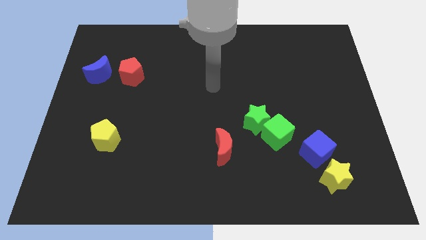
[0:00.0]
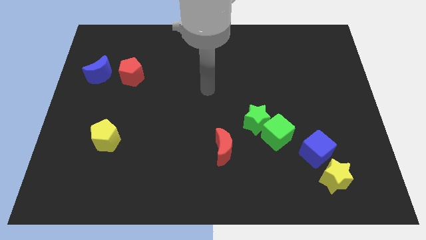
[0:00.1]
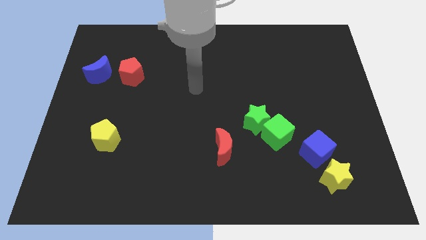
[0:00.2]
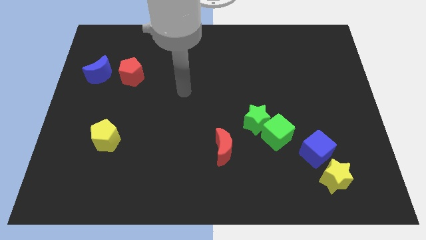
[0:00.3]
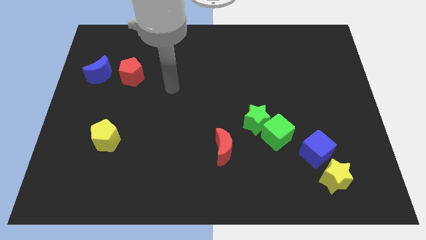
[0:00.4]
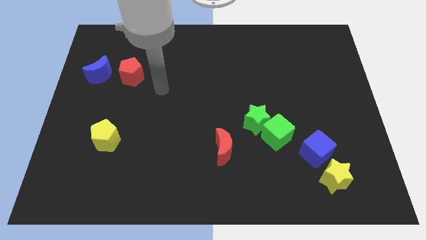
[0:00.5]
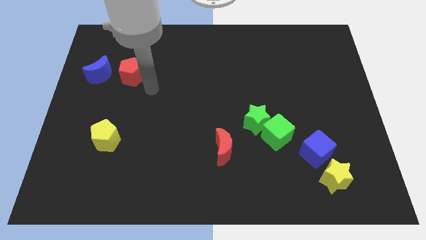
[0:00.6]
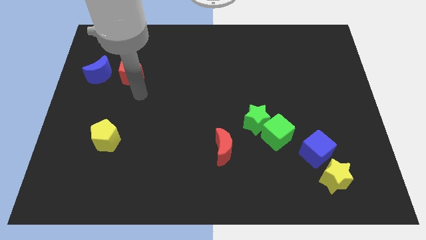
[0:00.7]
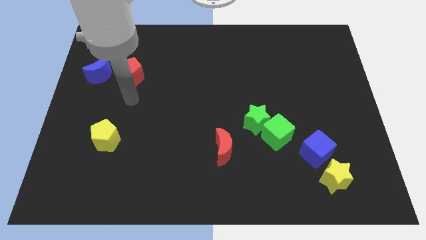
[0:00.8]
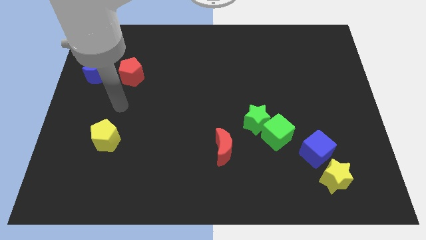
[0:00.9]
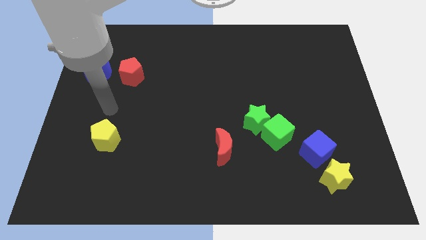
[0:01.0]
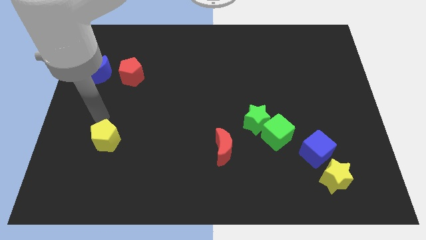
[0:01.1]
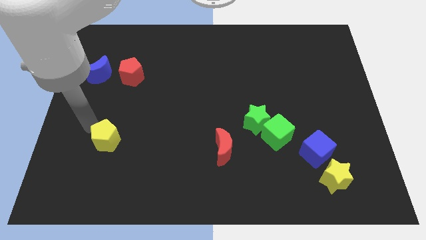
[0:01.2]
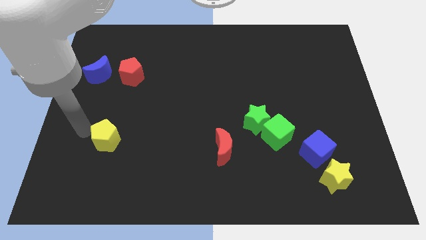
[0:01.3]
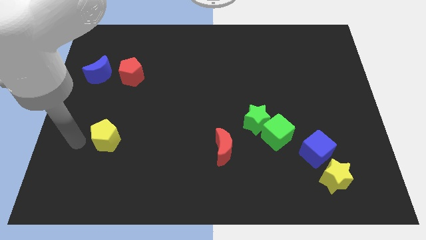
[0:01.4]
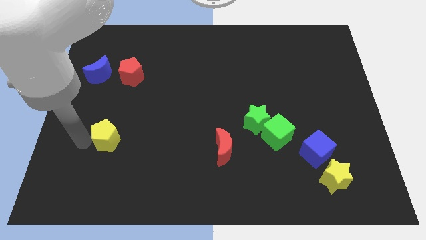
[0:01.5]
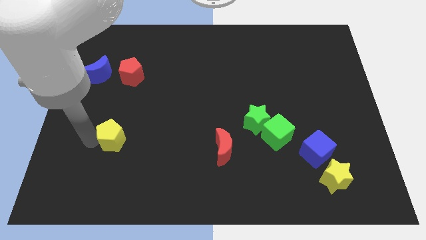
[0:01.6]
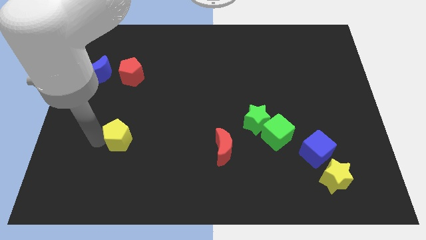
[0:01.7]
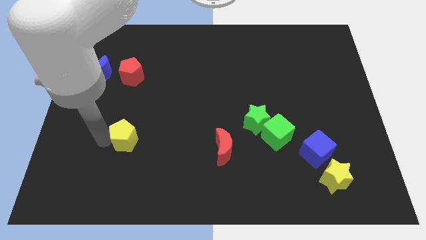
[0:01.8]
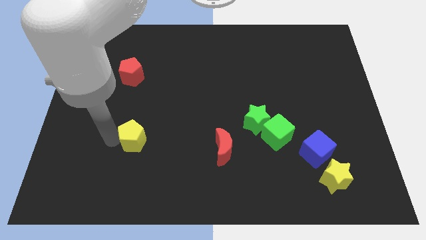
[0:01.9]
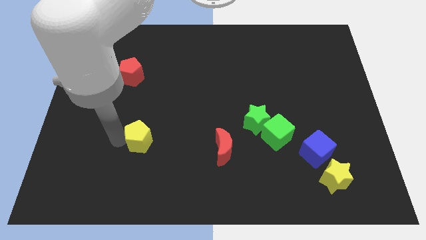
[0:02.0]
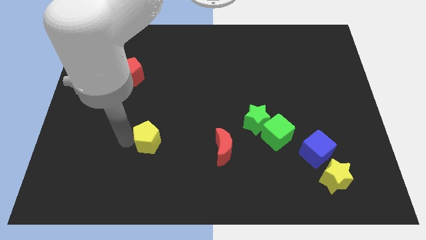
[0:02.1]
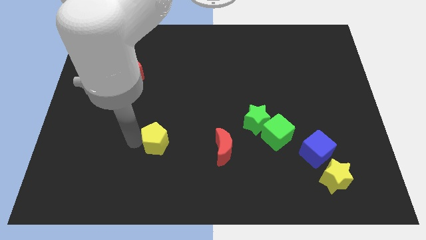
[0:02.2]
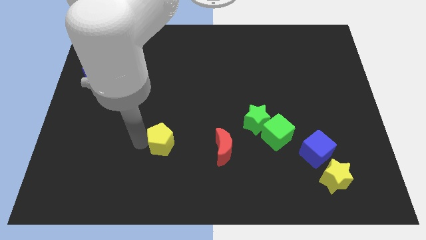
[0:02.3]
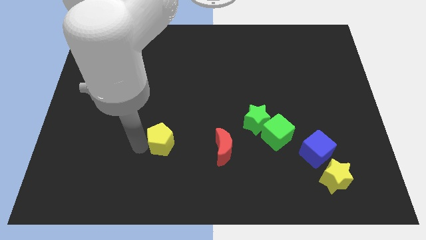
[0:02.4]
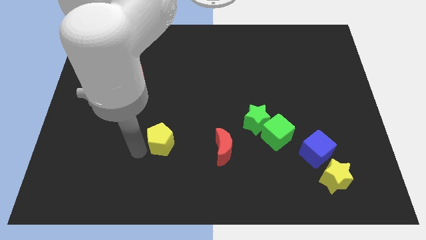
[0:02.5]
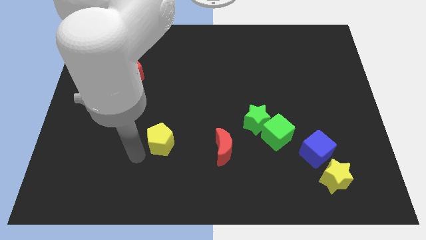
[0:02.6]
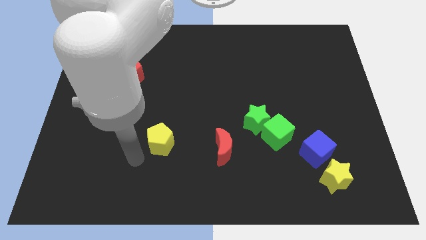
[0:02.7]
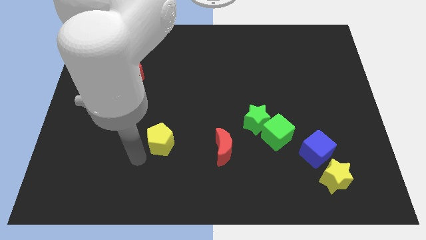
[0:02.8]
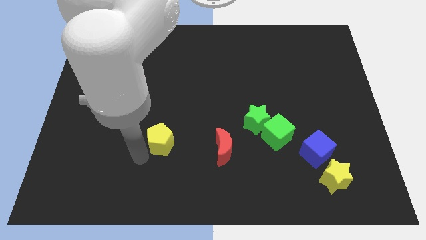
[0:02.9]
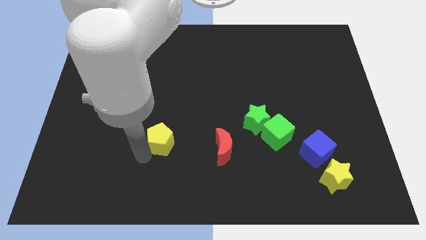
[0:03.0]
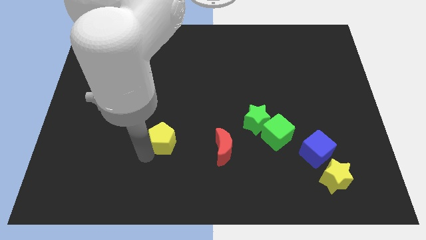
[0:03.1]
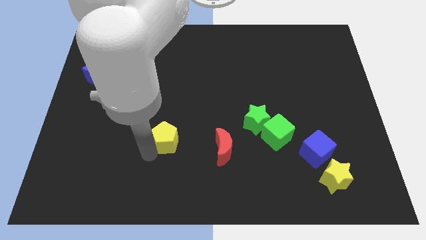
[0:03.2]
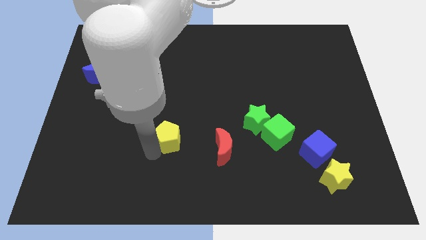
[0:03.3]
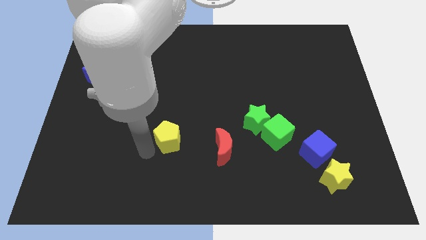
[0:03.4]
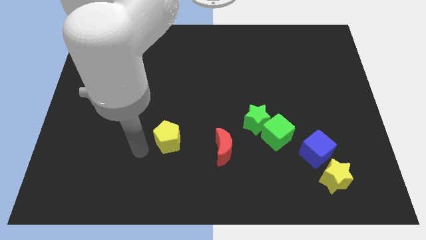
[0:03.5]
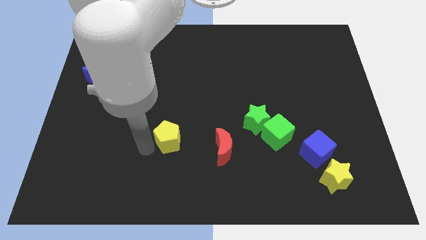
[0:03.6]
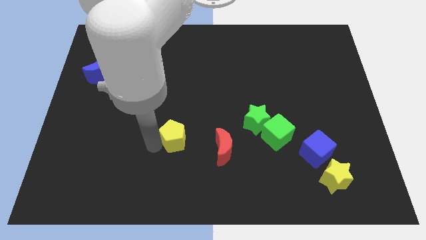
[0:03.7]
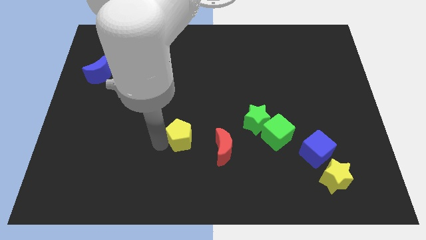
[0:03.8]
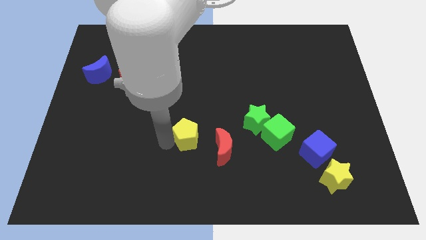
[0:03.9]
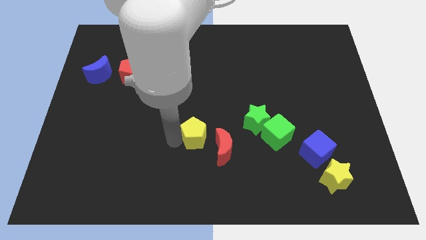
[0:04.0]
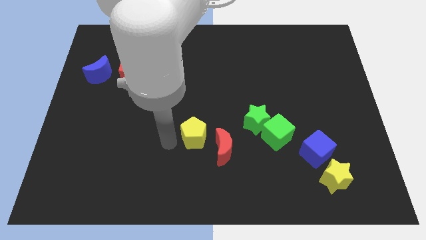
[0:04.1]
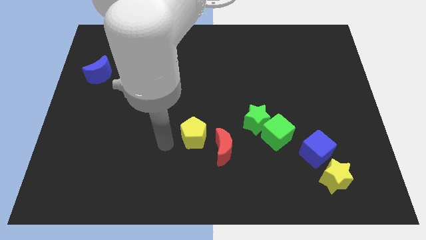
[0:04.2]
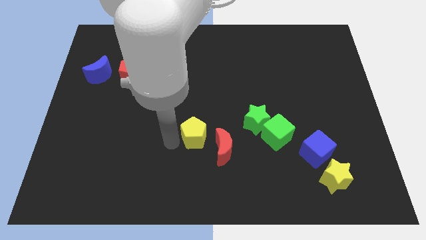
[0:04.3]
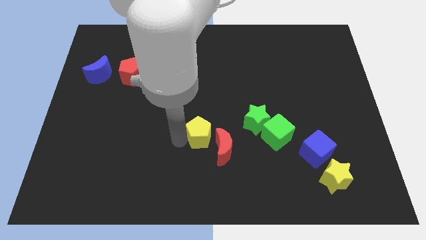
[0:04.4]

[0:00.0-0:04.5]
slide the yellow pentagon to the right

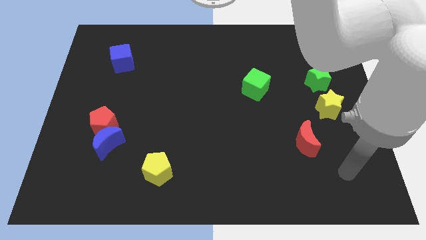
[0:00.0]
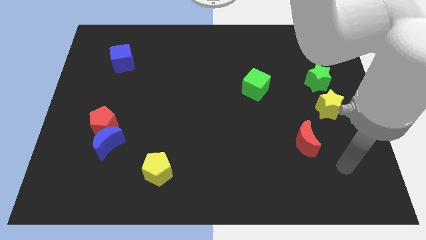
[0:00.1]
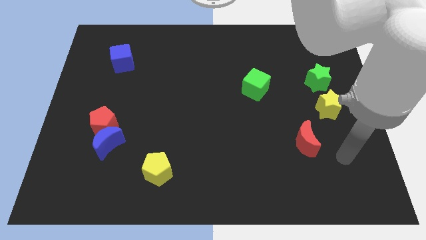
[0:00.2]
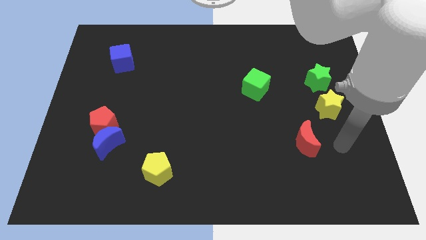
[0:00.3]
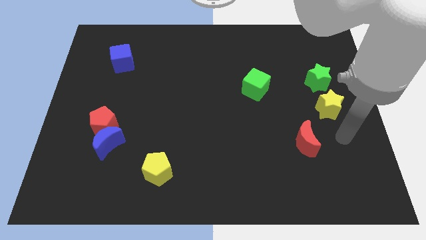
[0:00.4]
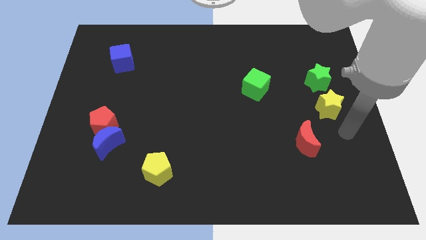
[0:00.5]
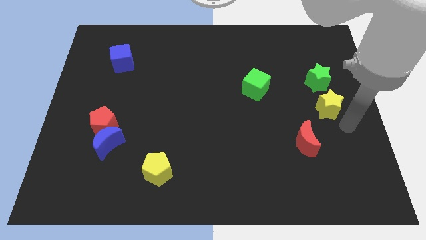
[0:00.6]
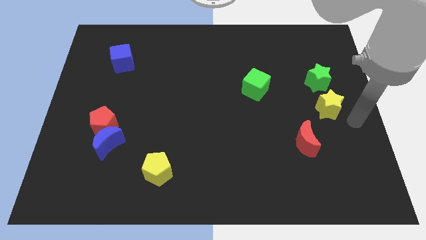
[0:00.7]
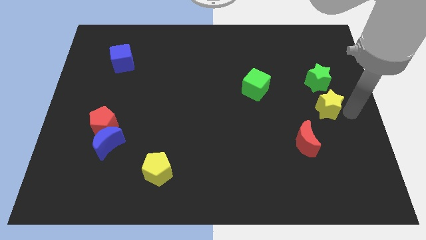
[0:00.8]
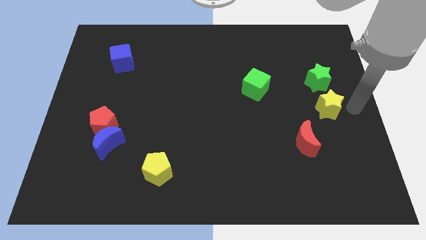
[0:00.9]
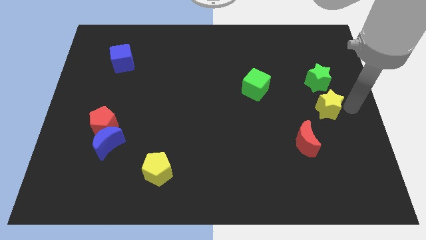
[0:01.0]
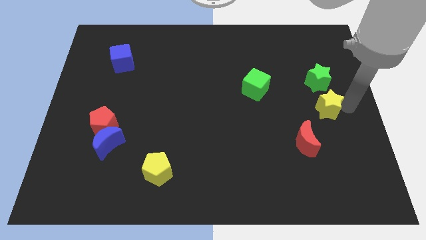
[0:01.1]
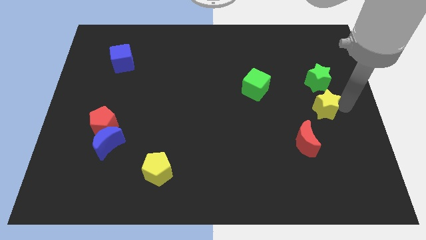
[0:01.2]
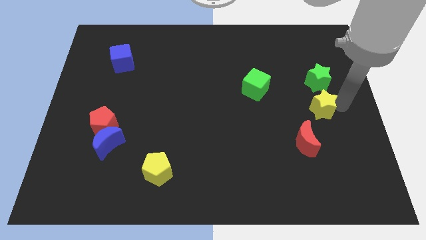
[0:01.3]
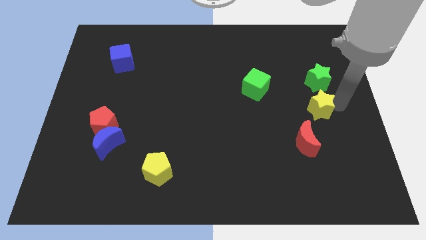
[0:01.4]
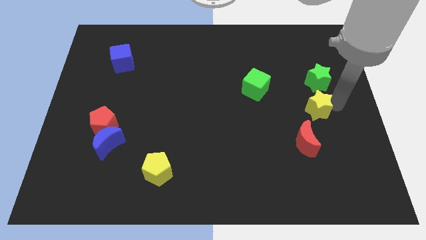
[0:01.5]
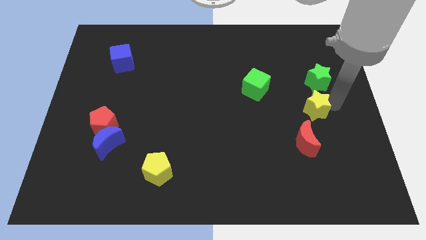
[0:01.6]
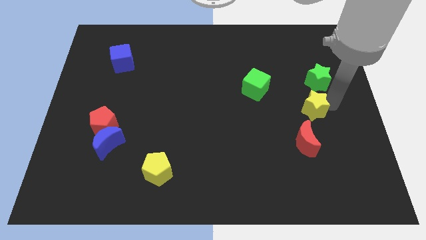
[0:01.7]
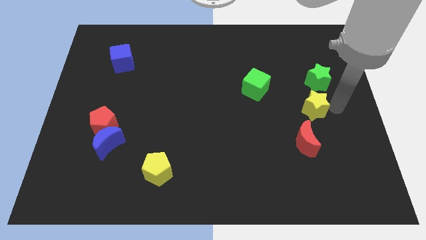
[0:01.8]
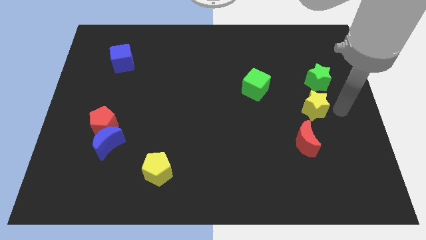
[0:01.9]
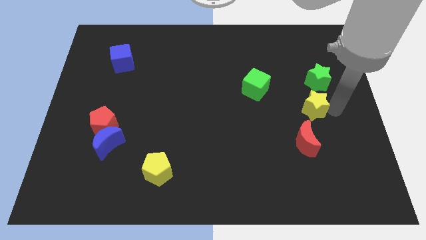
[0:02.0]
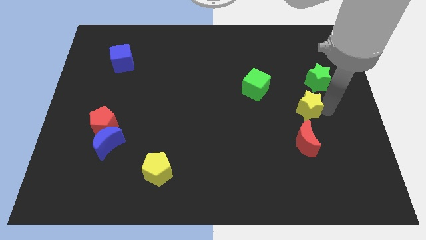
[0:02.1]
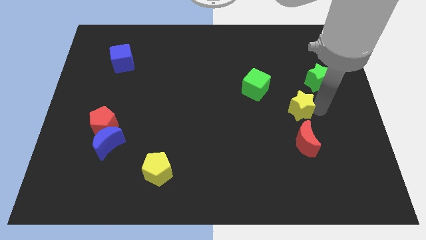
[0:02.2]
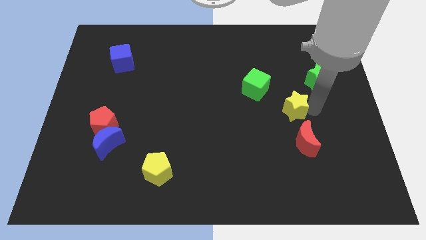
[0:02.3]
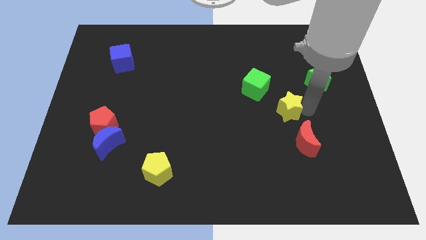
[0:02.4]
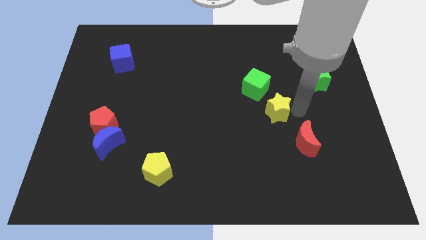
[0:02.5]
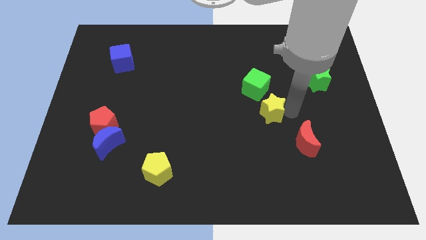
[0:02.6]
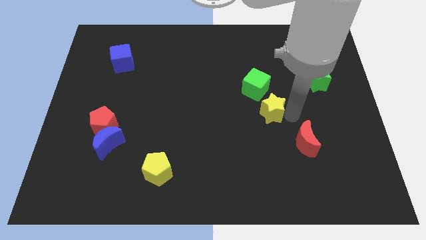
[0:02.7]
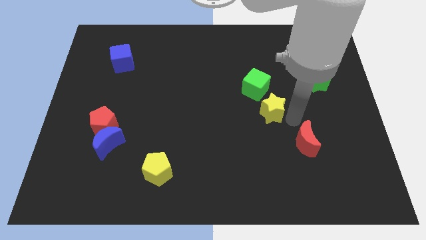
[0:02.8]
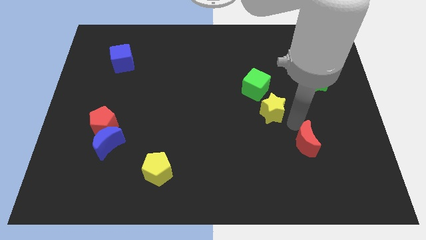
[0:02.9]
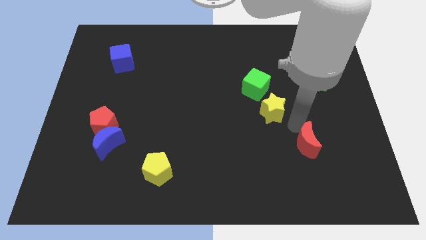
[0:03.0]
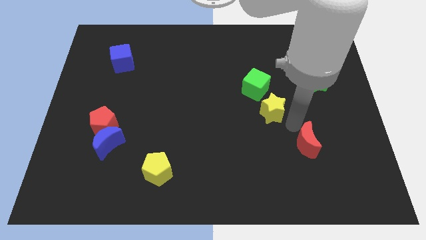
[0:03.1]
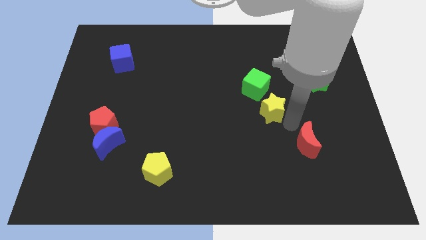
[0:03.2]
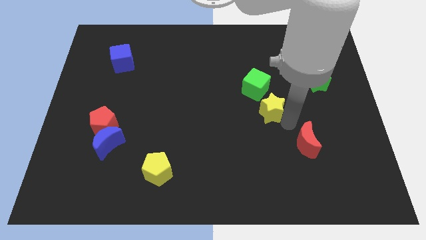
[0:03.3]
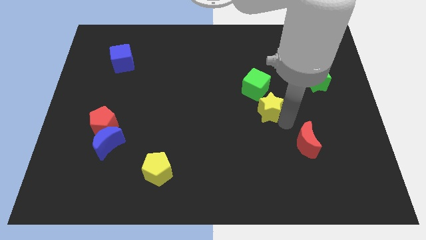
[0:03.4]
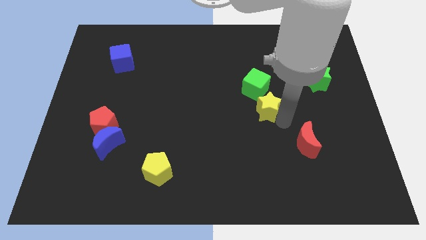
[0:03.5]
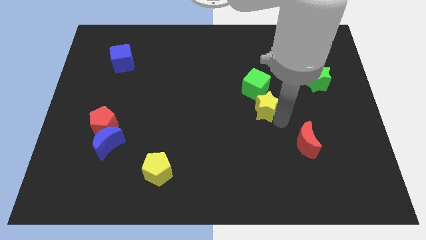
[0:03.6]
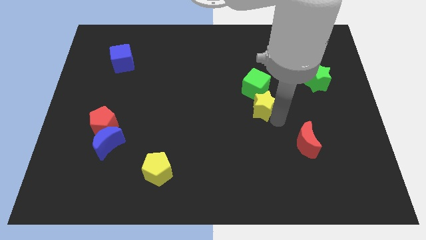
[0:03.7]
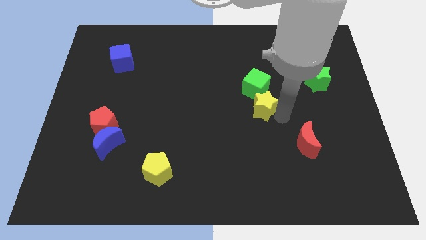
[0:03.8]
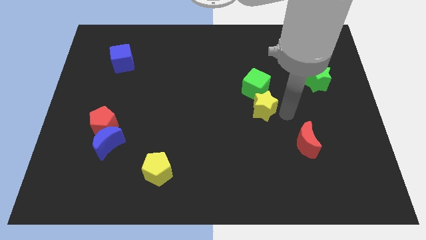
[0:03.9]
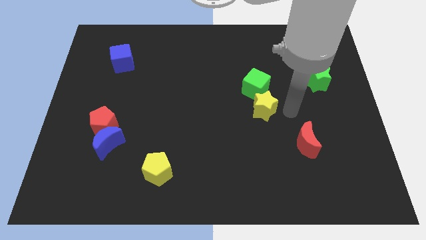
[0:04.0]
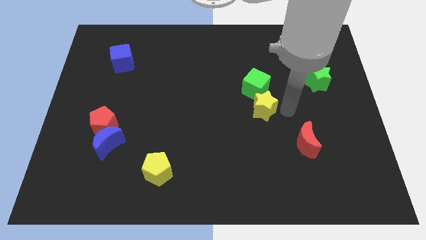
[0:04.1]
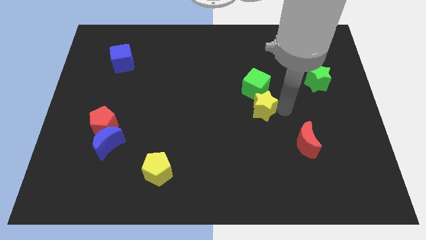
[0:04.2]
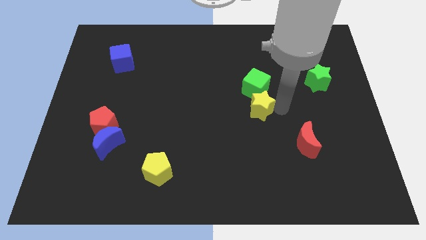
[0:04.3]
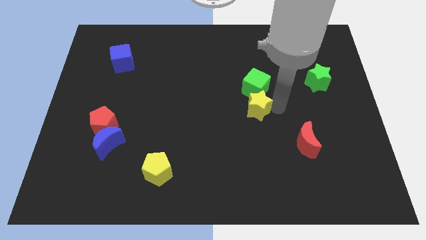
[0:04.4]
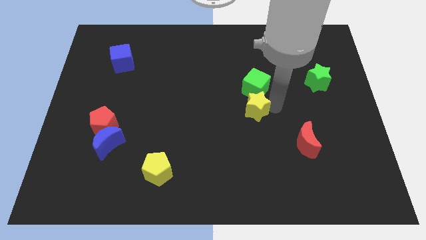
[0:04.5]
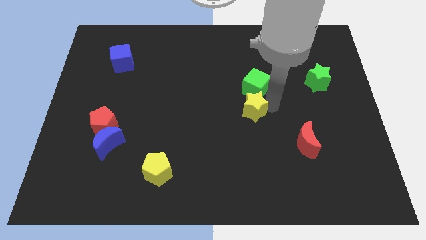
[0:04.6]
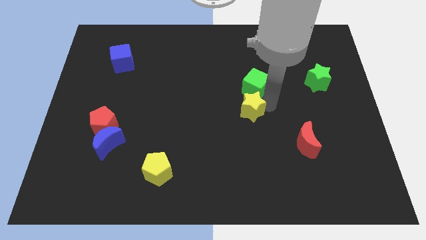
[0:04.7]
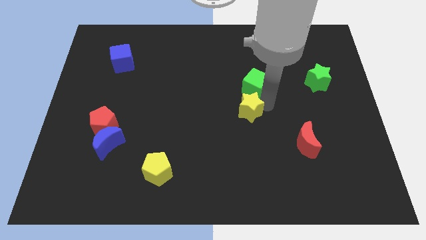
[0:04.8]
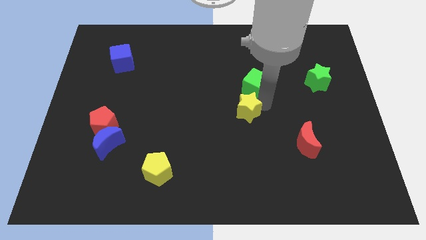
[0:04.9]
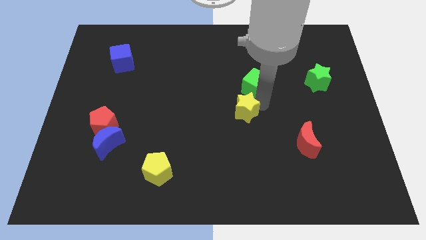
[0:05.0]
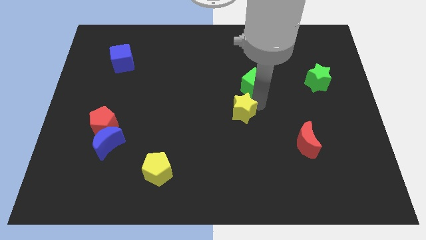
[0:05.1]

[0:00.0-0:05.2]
slide the yellow star left
